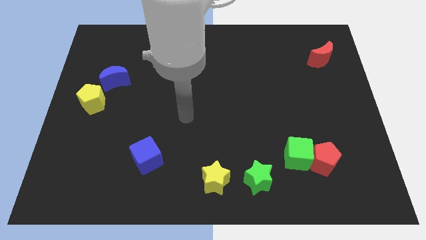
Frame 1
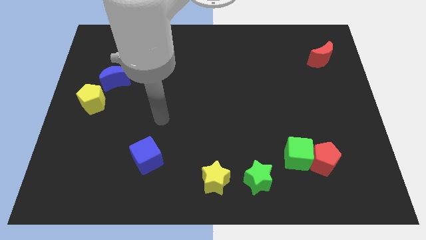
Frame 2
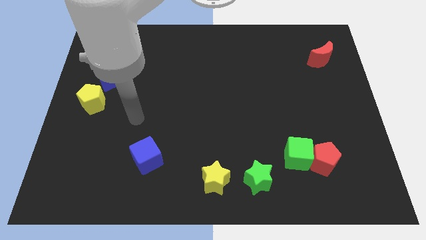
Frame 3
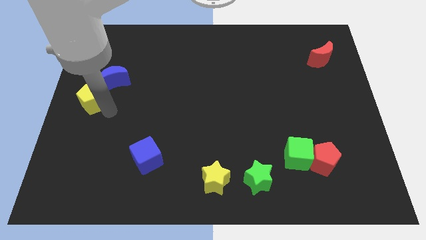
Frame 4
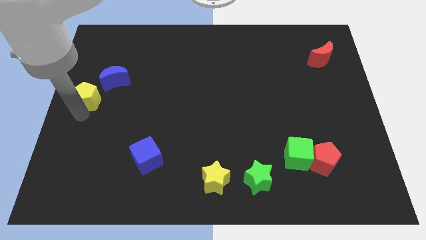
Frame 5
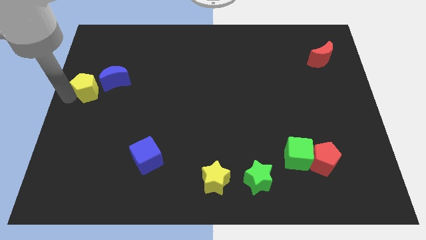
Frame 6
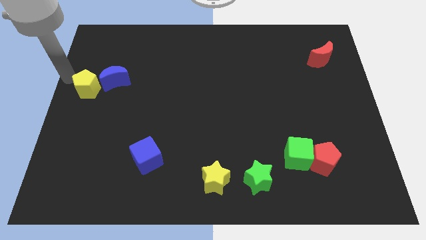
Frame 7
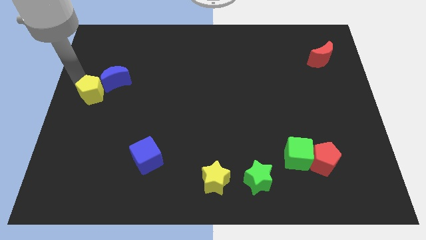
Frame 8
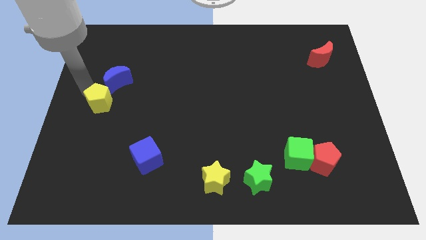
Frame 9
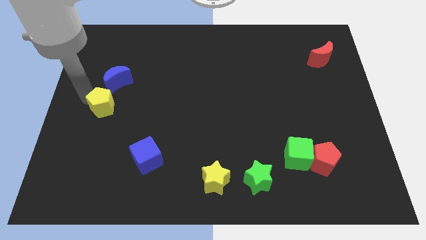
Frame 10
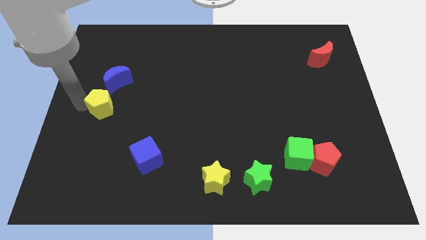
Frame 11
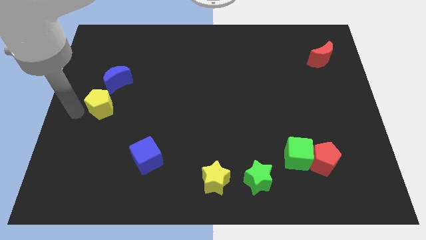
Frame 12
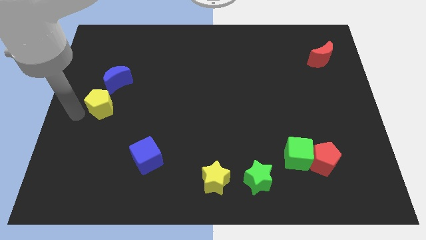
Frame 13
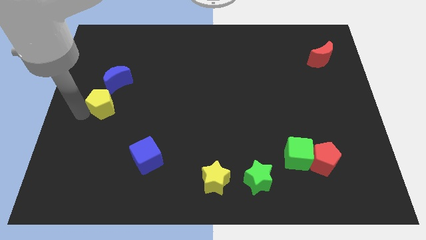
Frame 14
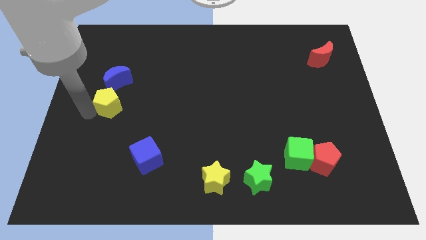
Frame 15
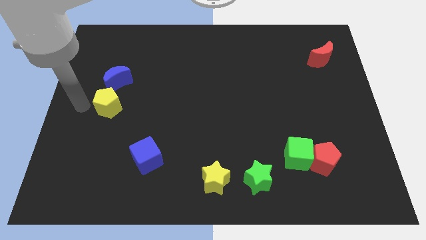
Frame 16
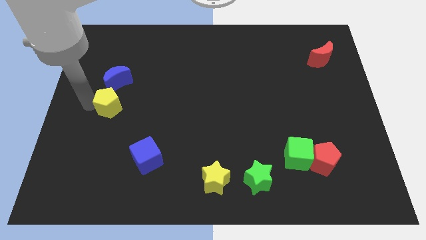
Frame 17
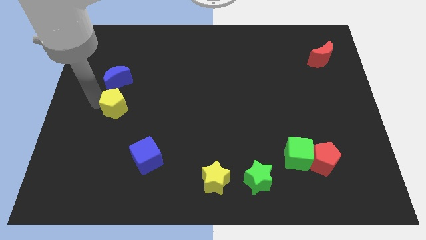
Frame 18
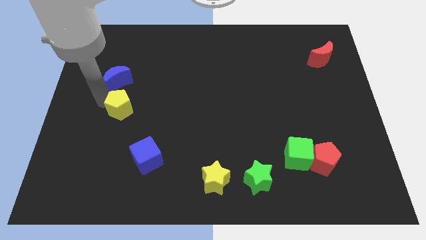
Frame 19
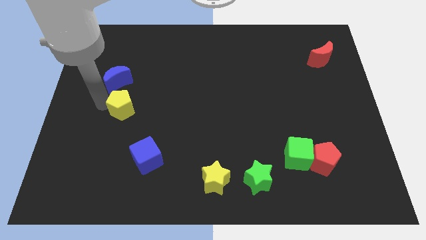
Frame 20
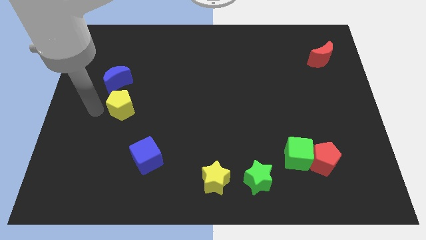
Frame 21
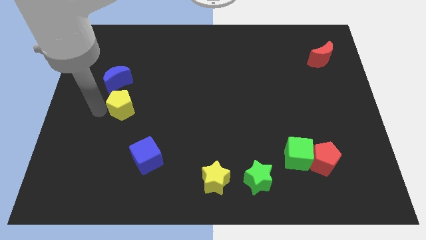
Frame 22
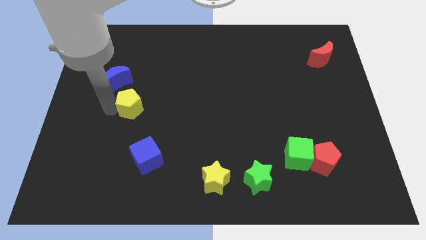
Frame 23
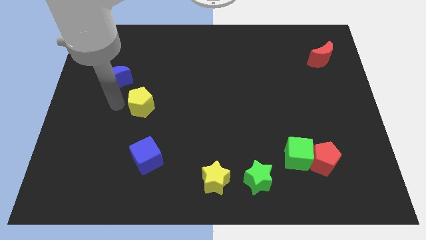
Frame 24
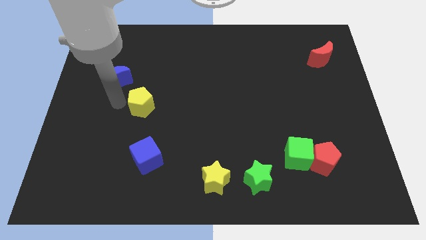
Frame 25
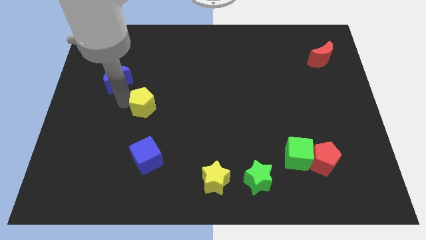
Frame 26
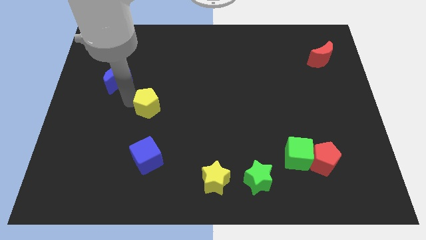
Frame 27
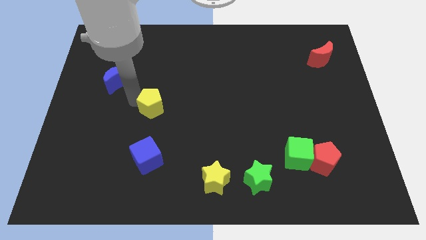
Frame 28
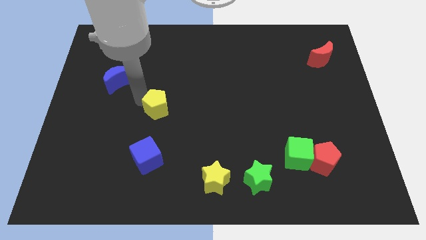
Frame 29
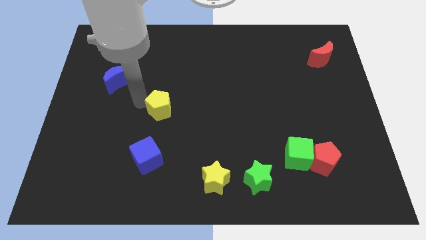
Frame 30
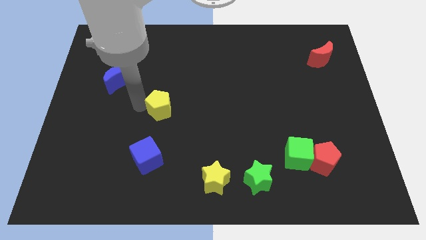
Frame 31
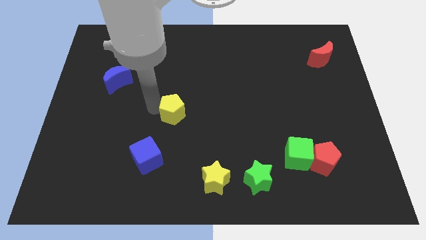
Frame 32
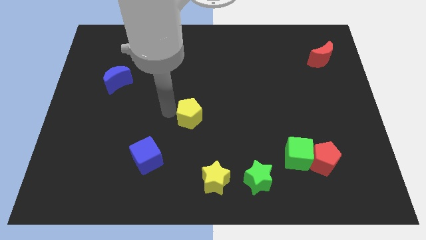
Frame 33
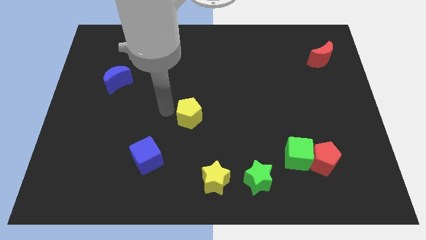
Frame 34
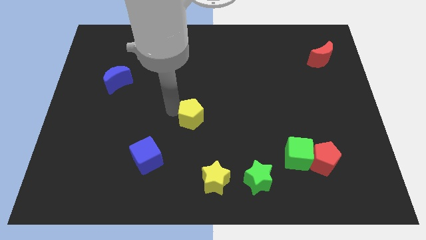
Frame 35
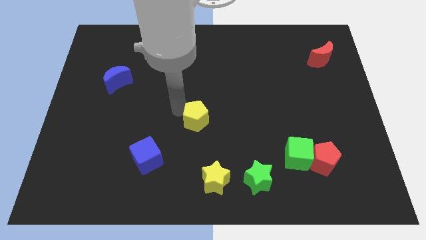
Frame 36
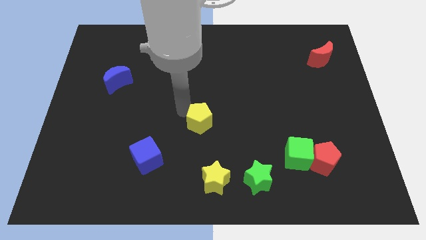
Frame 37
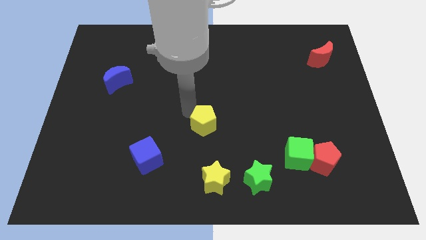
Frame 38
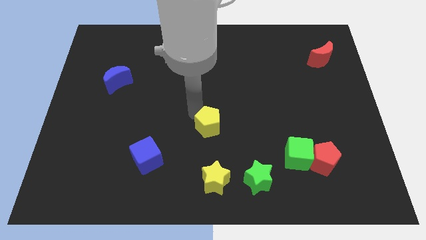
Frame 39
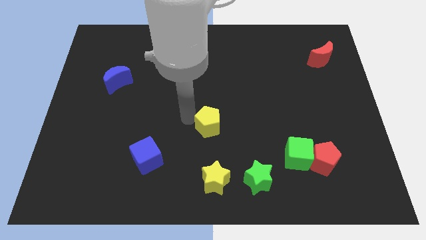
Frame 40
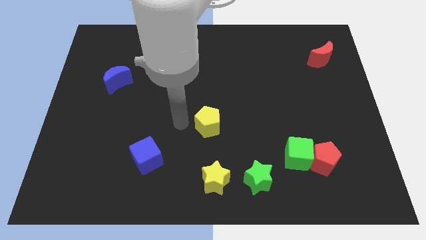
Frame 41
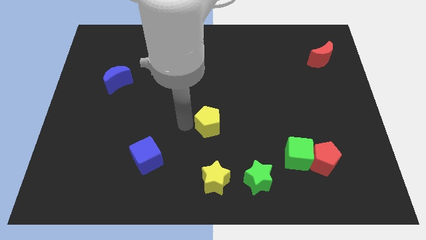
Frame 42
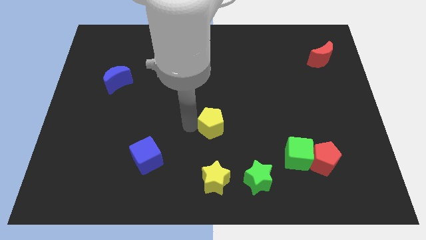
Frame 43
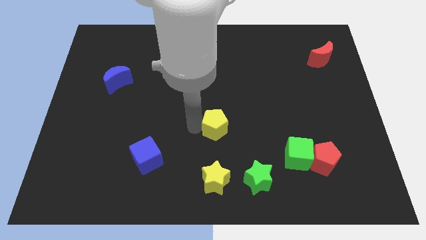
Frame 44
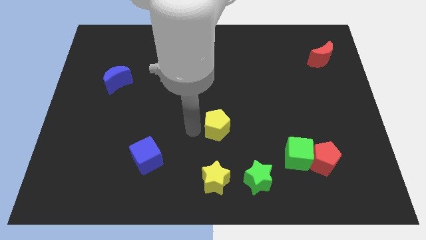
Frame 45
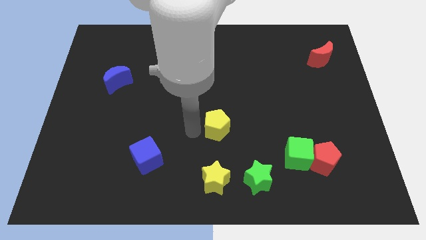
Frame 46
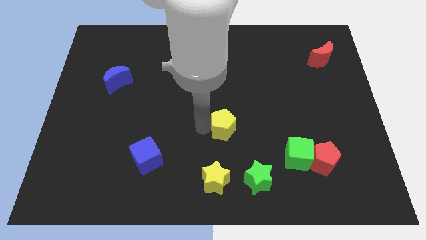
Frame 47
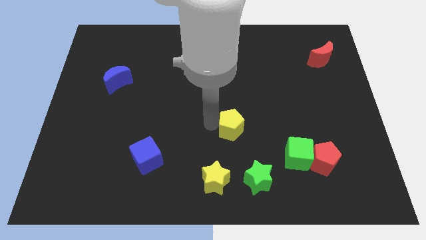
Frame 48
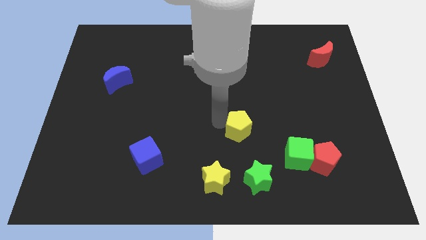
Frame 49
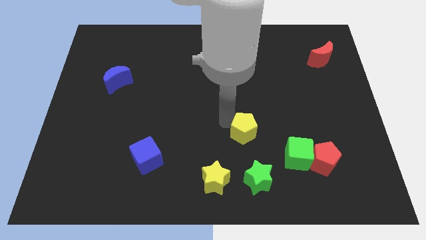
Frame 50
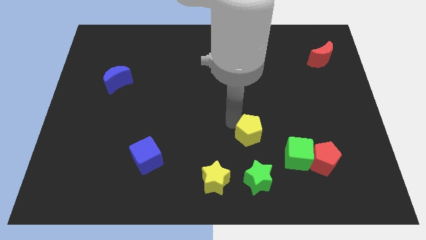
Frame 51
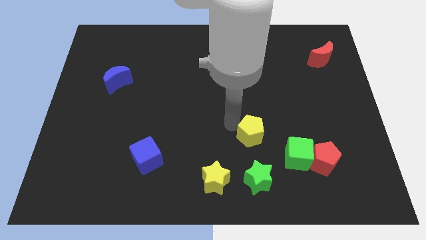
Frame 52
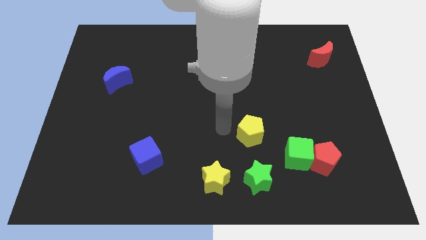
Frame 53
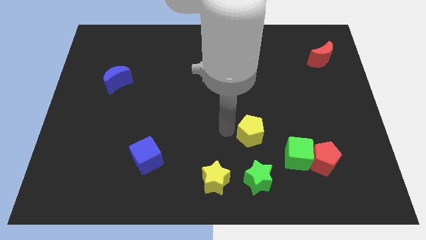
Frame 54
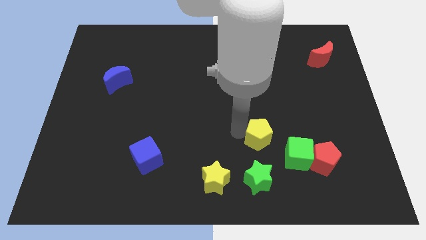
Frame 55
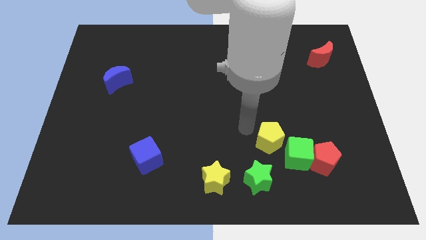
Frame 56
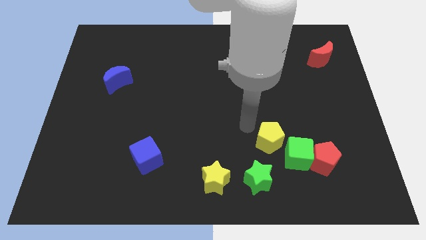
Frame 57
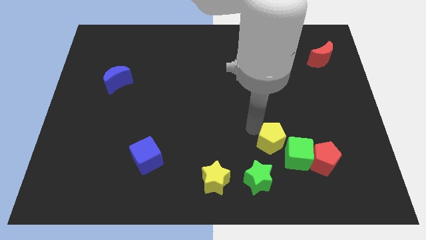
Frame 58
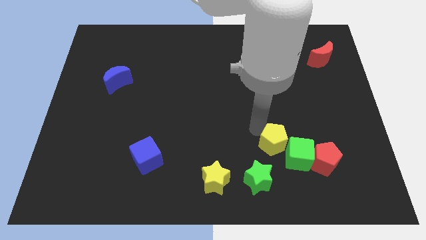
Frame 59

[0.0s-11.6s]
put the yellow pentagon next to the green cube

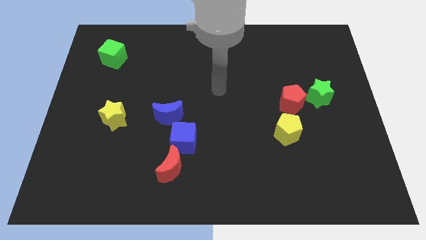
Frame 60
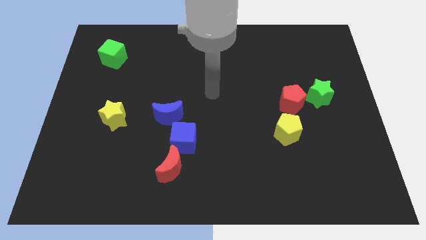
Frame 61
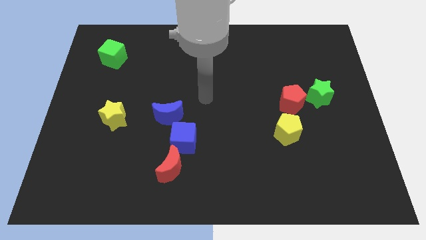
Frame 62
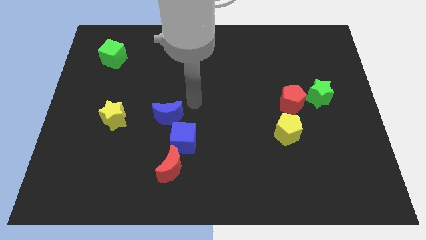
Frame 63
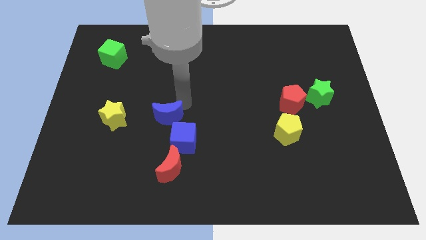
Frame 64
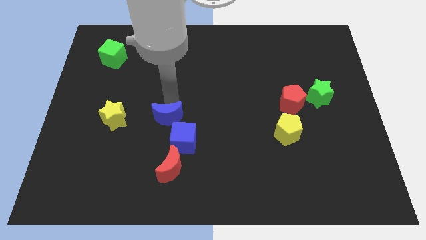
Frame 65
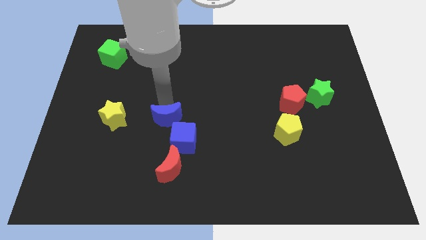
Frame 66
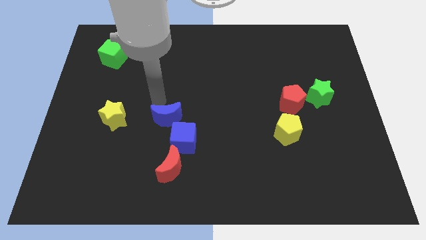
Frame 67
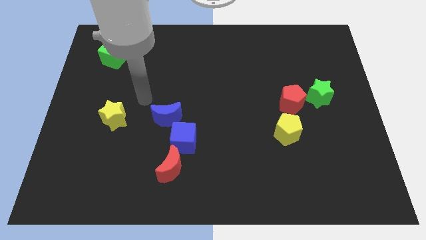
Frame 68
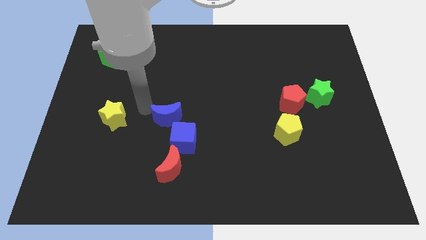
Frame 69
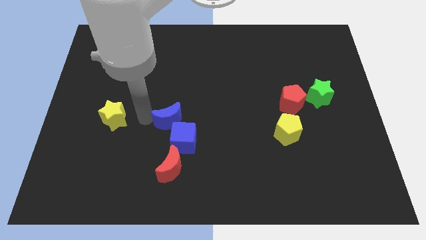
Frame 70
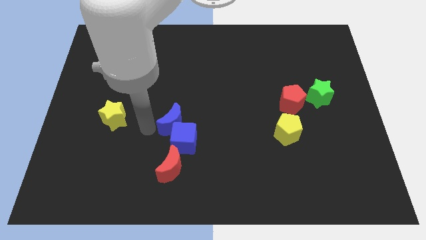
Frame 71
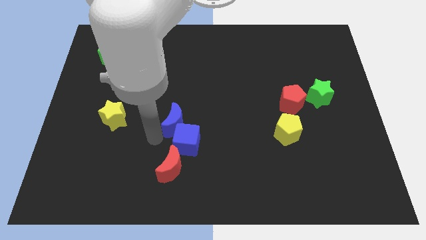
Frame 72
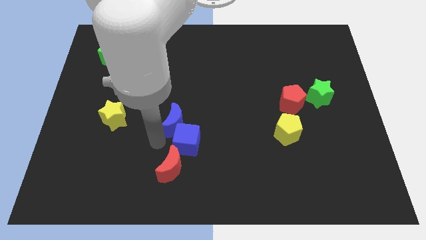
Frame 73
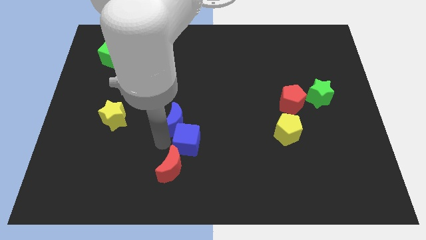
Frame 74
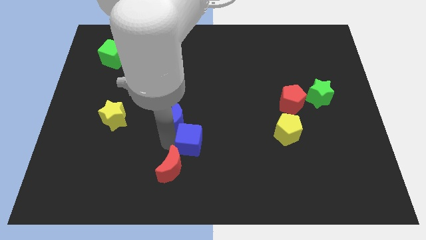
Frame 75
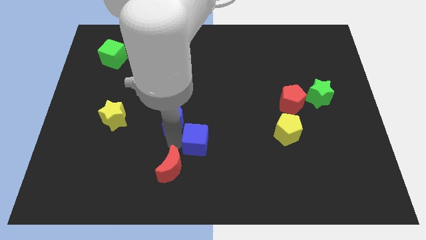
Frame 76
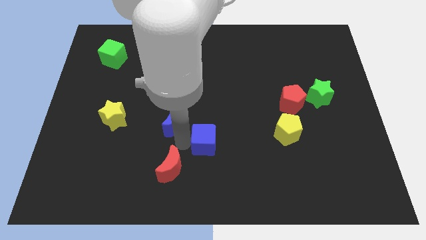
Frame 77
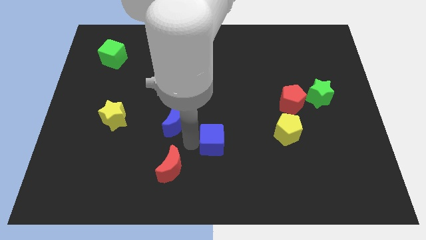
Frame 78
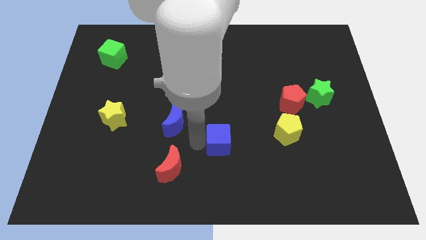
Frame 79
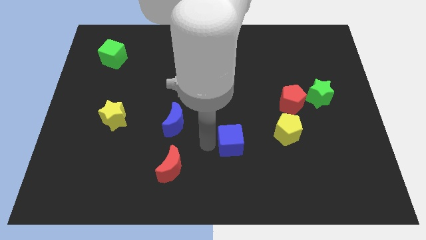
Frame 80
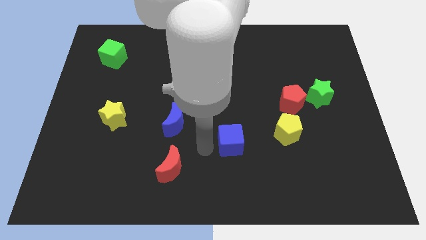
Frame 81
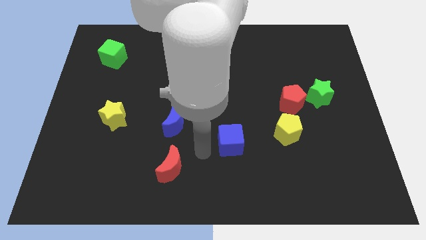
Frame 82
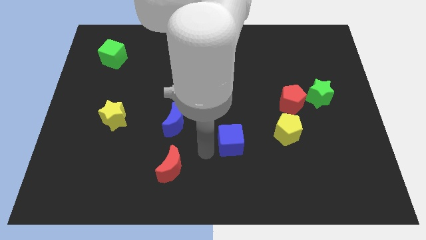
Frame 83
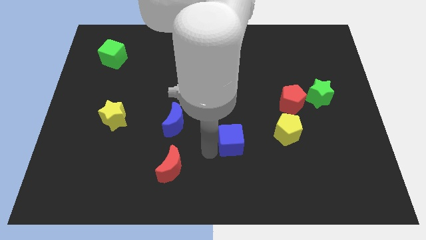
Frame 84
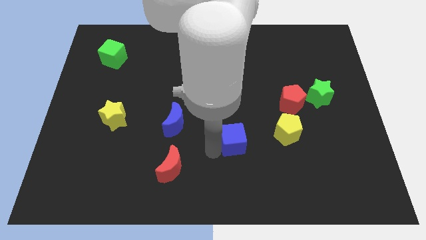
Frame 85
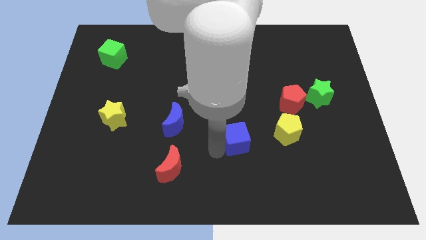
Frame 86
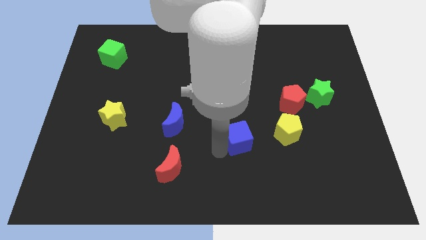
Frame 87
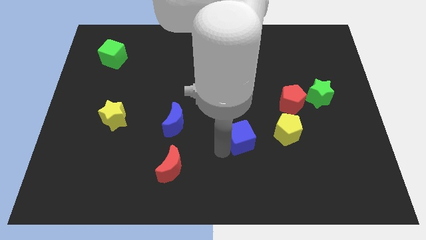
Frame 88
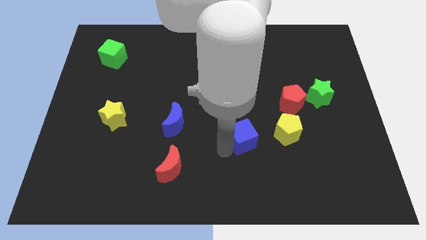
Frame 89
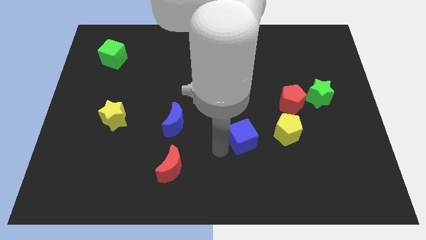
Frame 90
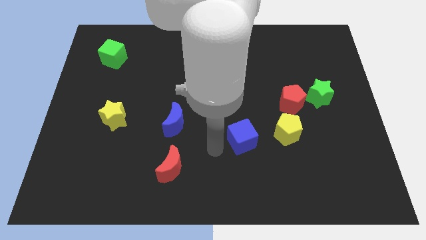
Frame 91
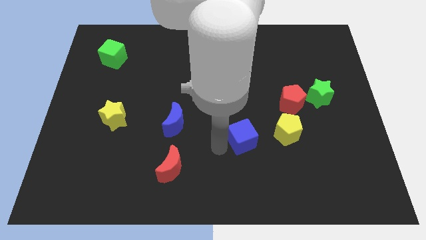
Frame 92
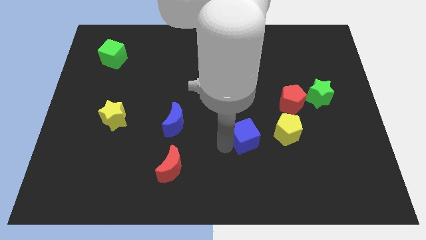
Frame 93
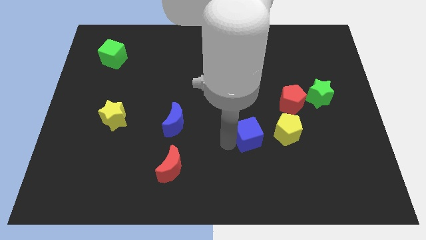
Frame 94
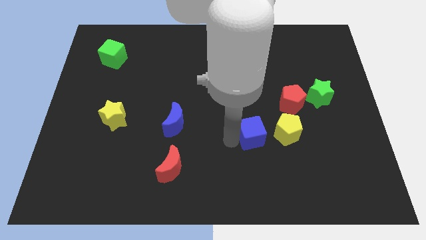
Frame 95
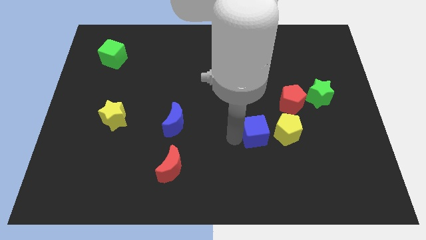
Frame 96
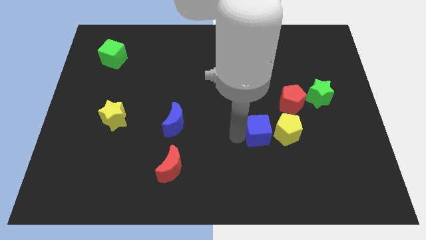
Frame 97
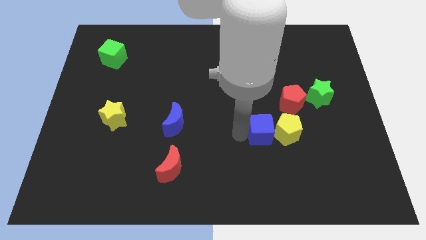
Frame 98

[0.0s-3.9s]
slide the blue cube next to the yellow pentagon
